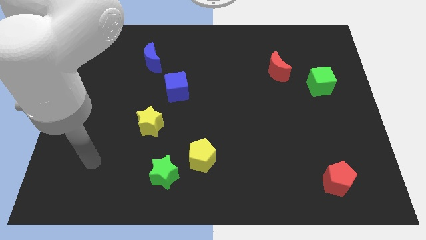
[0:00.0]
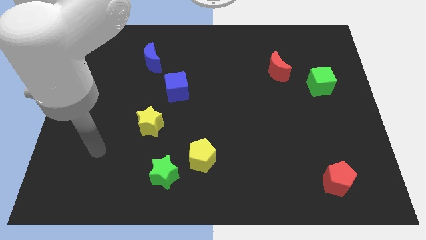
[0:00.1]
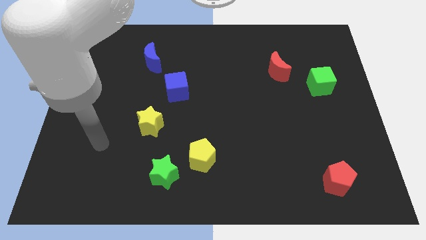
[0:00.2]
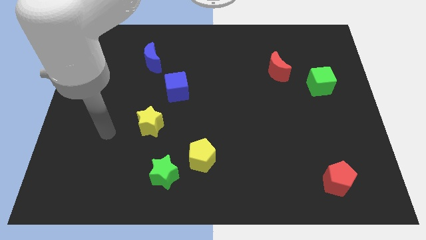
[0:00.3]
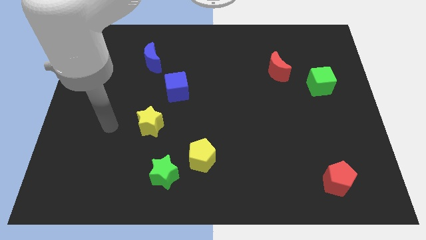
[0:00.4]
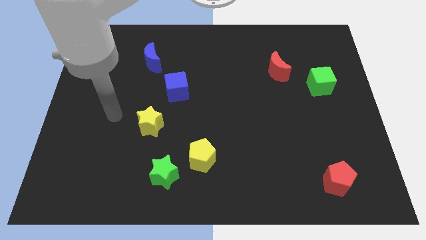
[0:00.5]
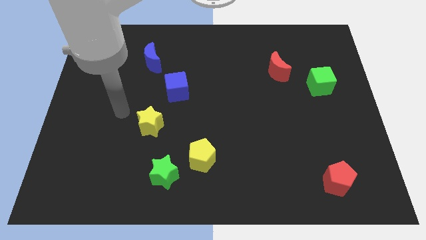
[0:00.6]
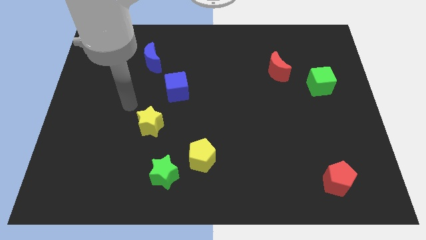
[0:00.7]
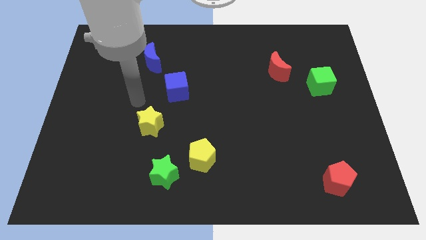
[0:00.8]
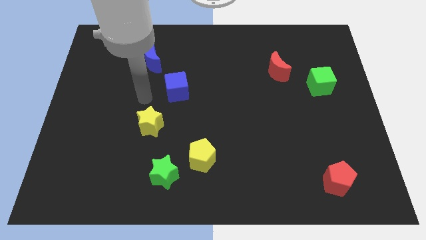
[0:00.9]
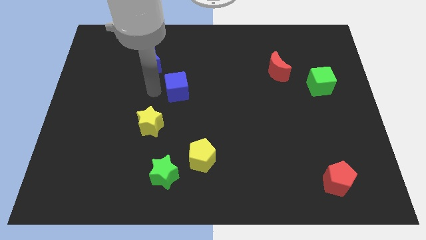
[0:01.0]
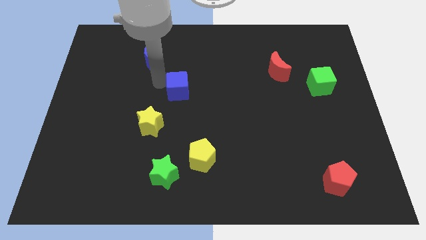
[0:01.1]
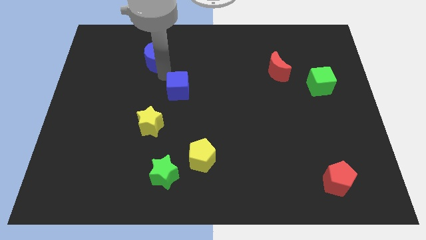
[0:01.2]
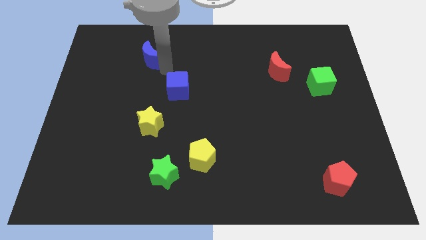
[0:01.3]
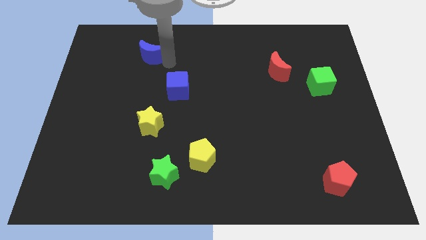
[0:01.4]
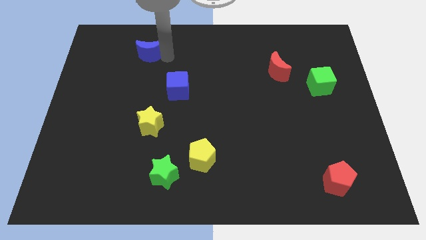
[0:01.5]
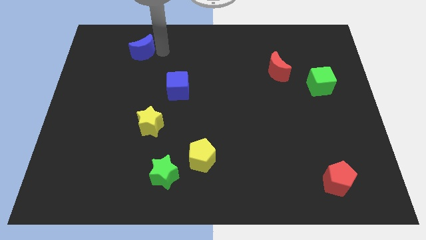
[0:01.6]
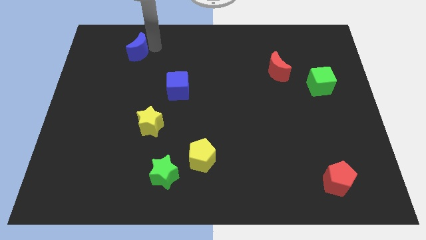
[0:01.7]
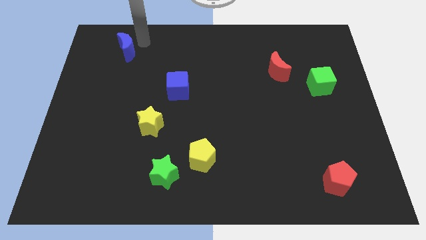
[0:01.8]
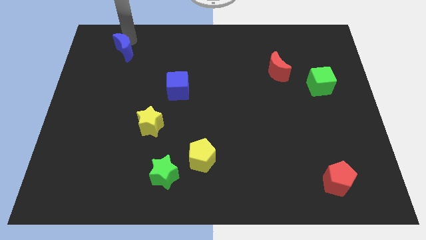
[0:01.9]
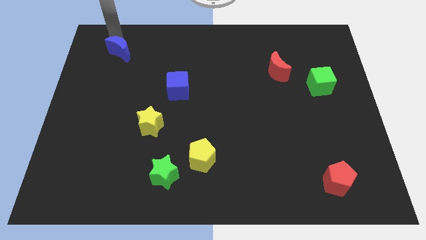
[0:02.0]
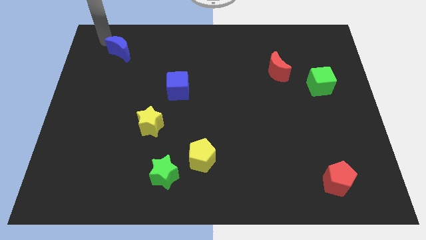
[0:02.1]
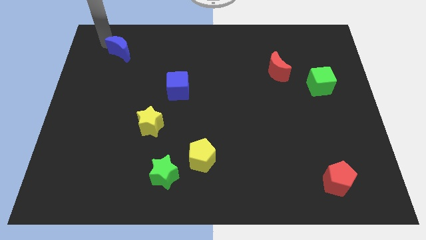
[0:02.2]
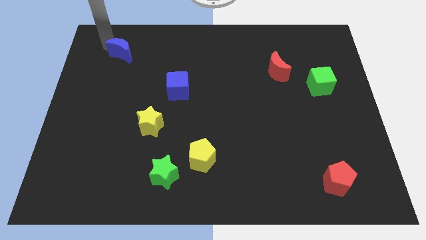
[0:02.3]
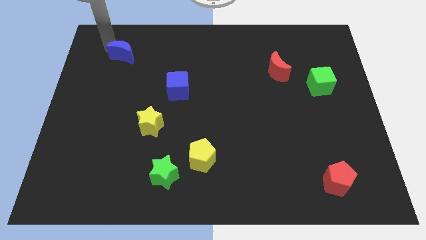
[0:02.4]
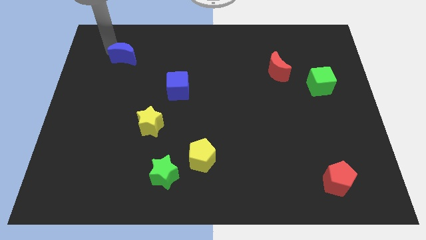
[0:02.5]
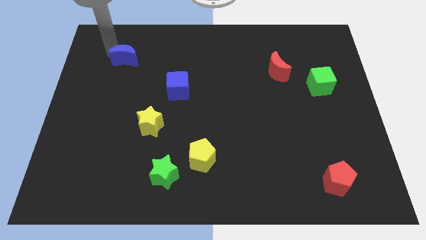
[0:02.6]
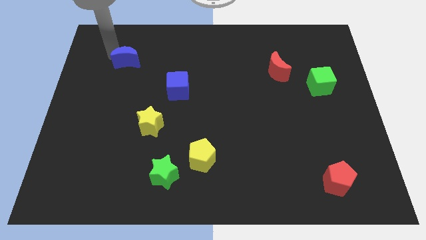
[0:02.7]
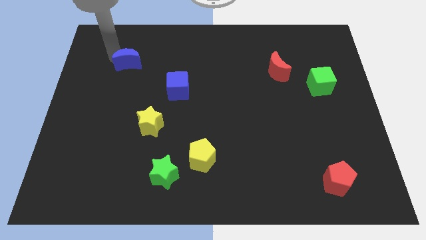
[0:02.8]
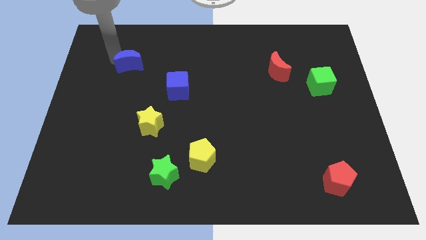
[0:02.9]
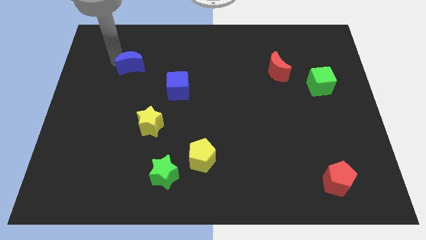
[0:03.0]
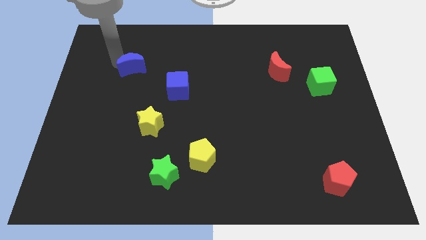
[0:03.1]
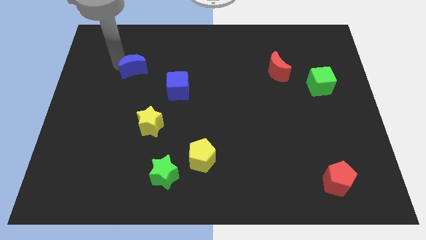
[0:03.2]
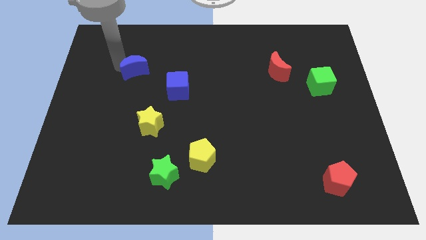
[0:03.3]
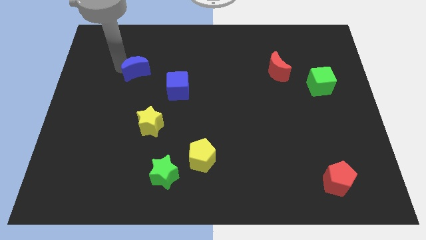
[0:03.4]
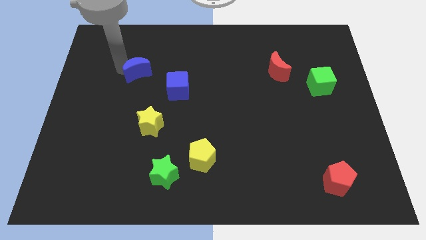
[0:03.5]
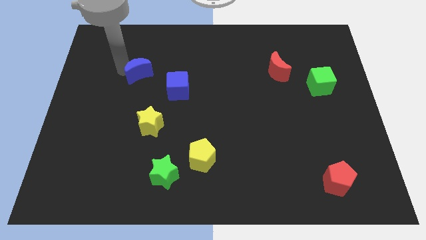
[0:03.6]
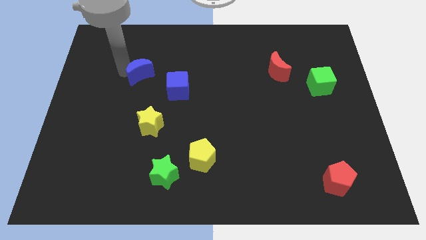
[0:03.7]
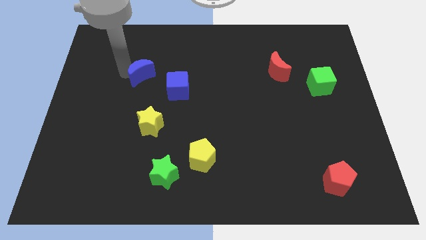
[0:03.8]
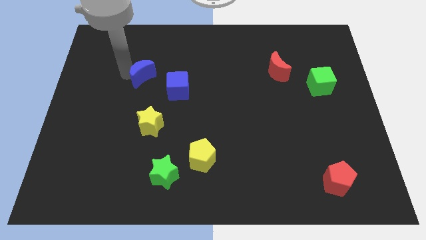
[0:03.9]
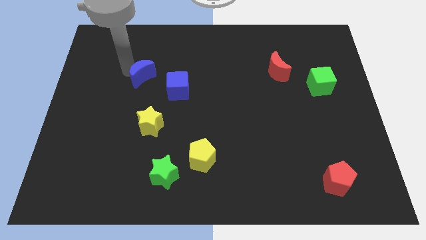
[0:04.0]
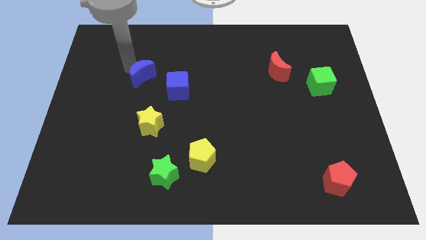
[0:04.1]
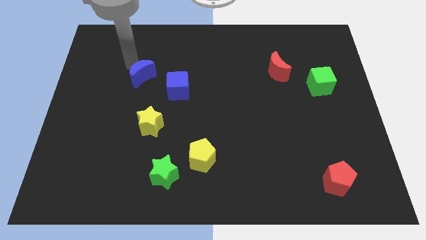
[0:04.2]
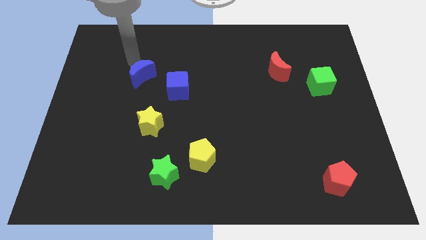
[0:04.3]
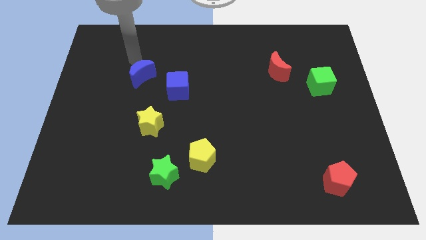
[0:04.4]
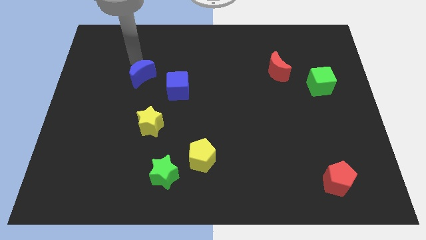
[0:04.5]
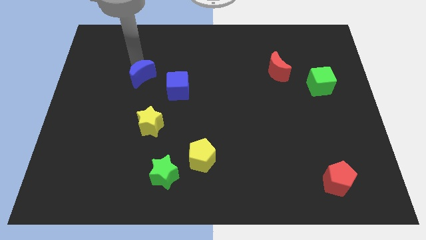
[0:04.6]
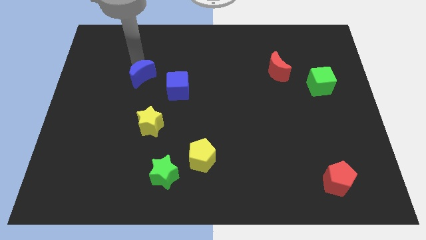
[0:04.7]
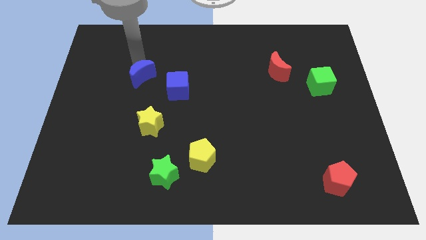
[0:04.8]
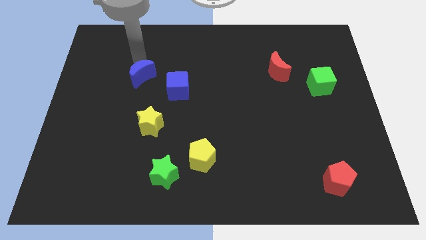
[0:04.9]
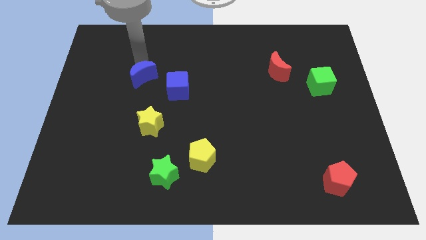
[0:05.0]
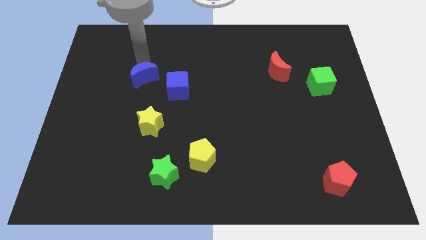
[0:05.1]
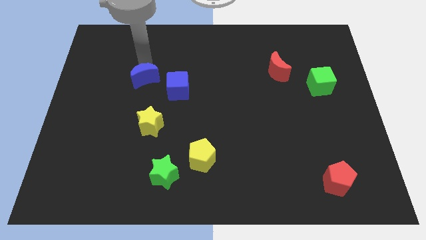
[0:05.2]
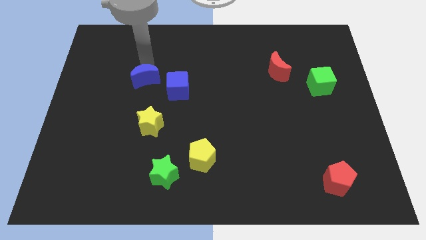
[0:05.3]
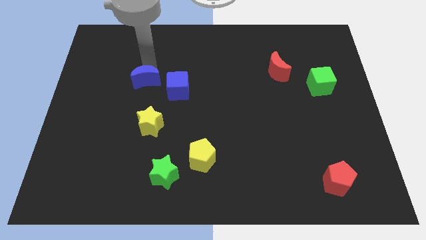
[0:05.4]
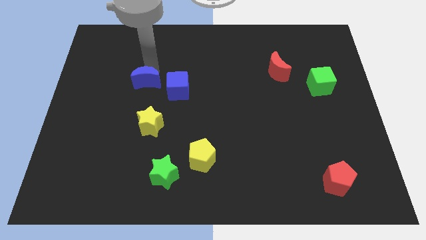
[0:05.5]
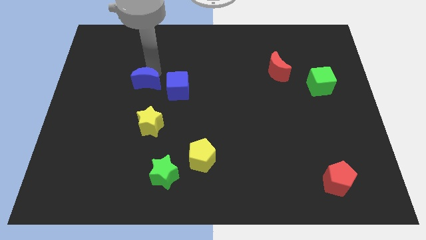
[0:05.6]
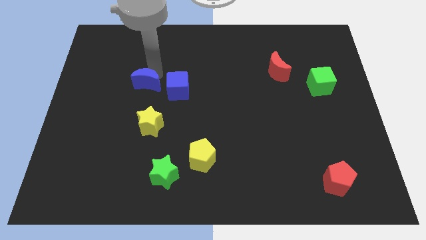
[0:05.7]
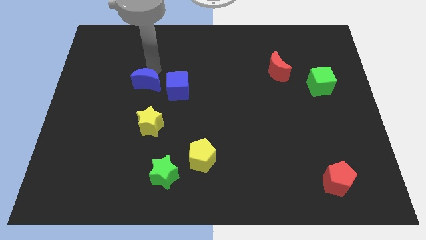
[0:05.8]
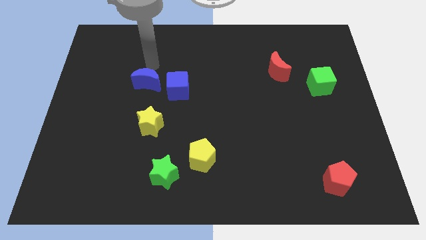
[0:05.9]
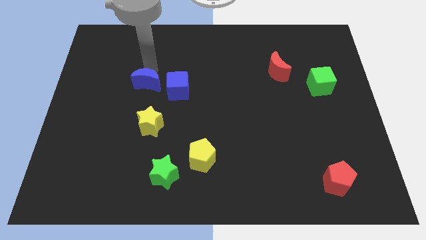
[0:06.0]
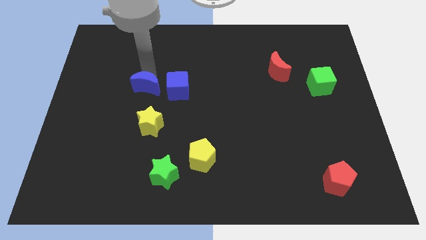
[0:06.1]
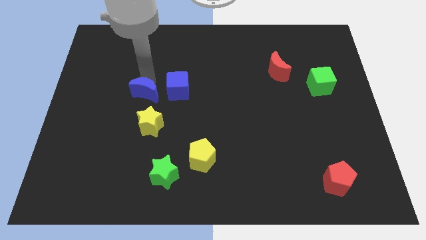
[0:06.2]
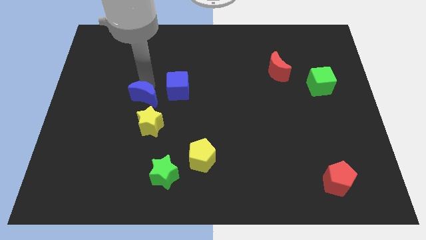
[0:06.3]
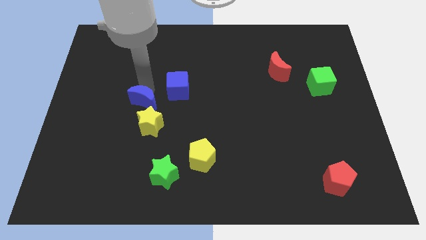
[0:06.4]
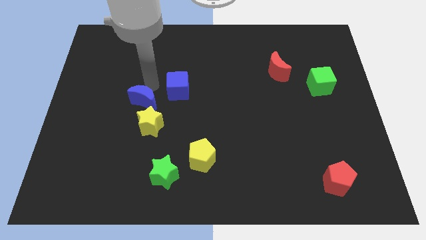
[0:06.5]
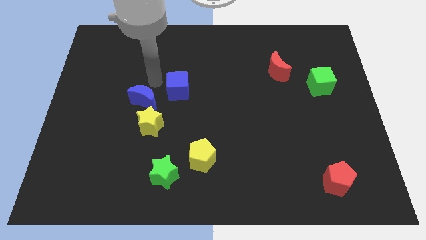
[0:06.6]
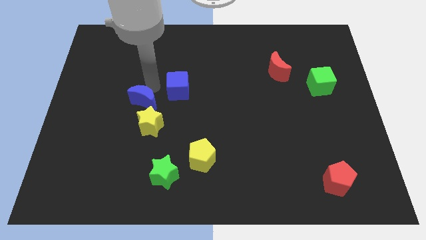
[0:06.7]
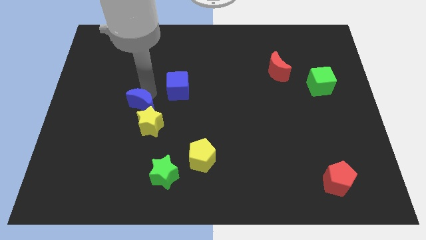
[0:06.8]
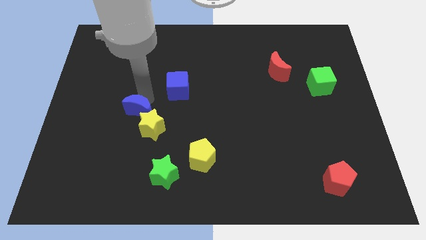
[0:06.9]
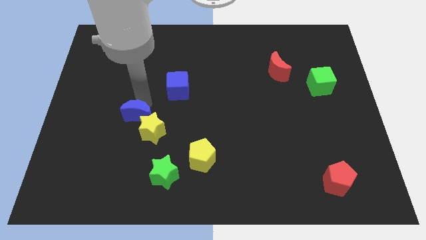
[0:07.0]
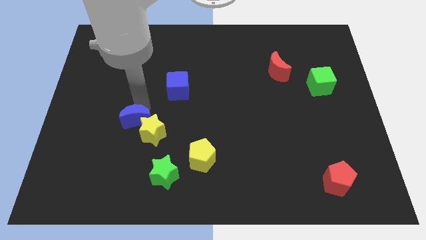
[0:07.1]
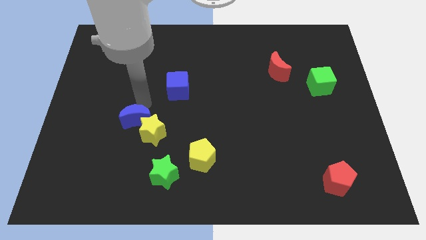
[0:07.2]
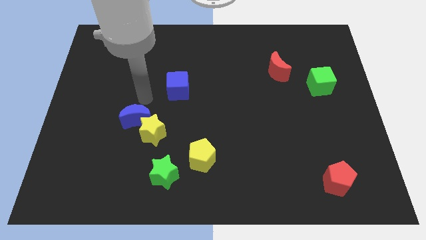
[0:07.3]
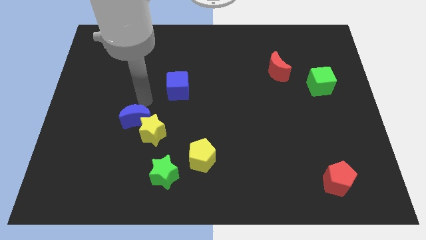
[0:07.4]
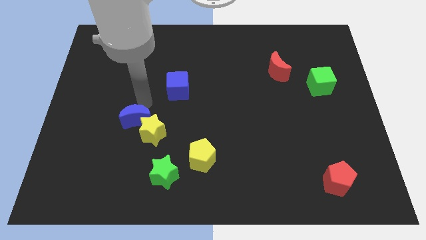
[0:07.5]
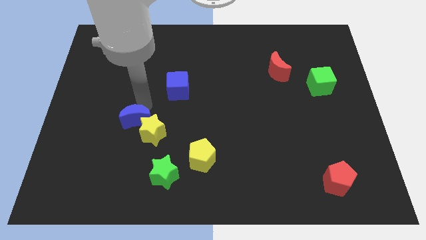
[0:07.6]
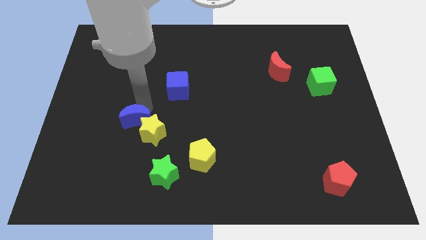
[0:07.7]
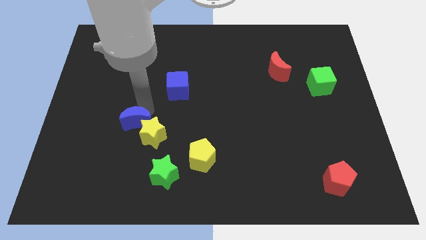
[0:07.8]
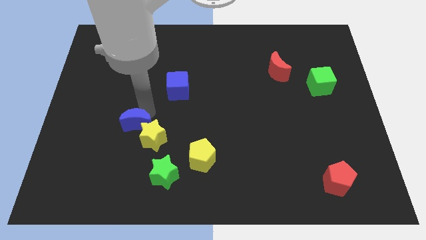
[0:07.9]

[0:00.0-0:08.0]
move the blue moon downwards

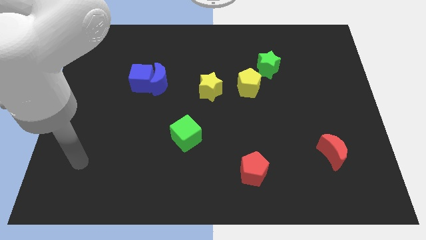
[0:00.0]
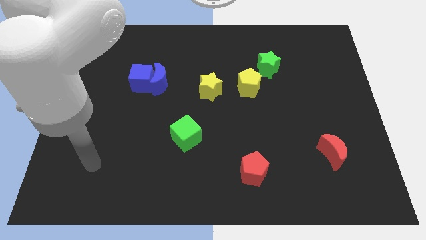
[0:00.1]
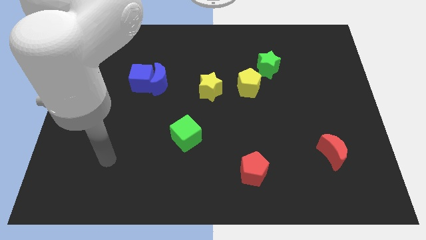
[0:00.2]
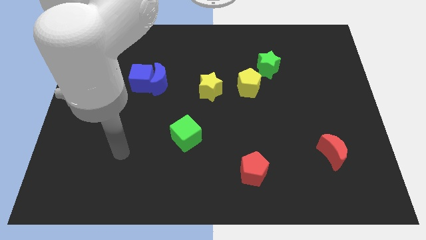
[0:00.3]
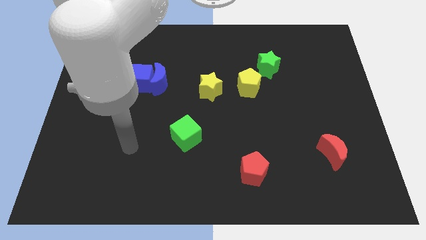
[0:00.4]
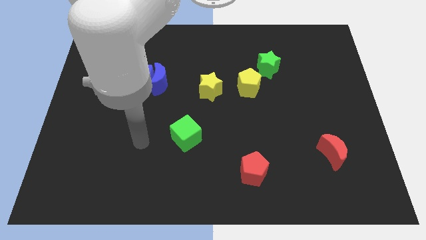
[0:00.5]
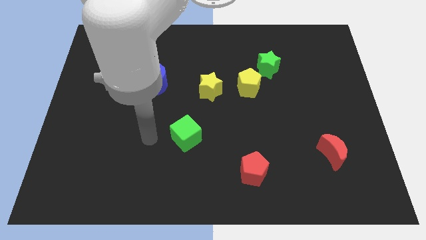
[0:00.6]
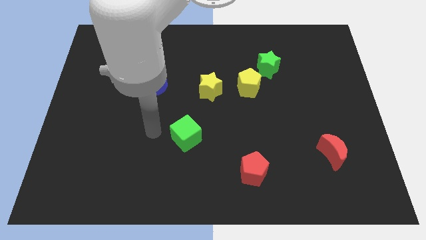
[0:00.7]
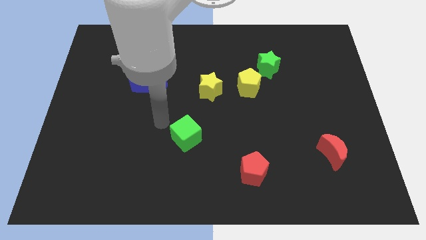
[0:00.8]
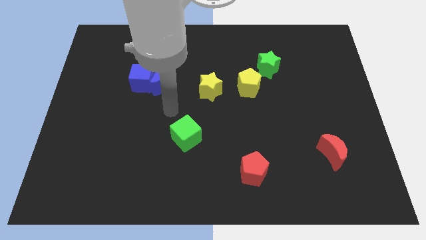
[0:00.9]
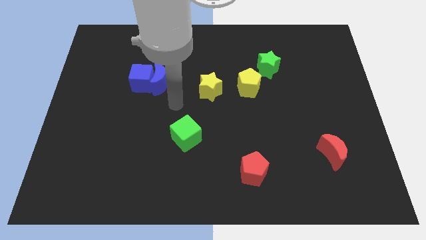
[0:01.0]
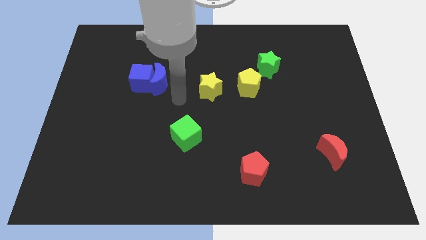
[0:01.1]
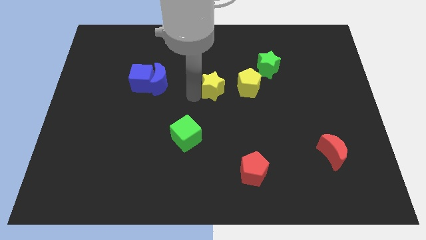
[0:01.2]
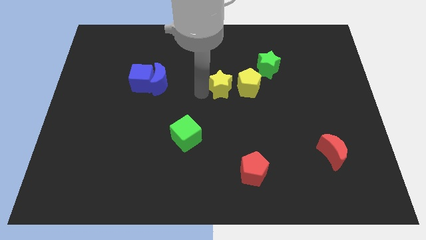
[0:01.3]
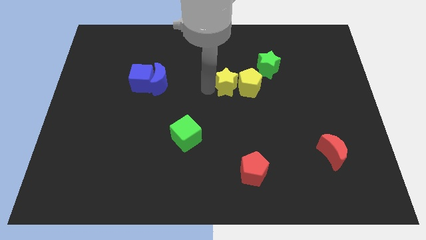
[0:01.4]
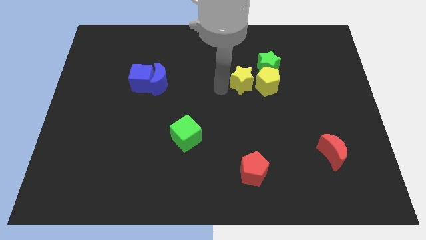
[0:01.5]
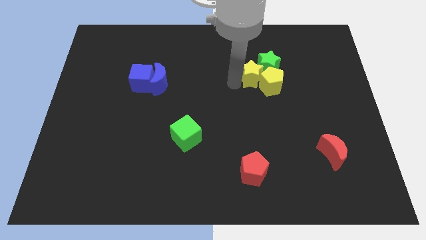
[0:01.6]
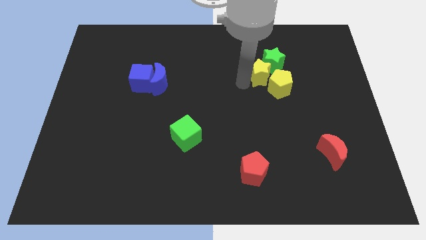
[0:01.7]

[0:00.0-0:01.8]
push the yellow pentagon to the right slightly
